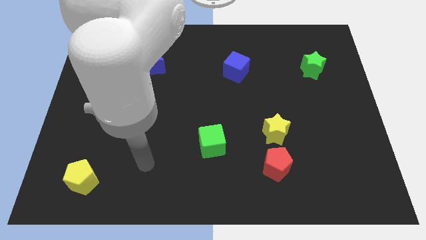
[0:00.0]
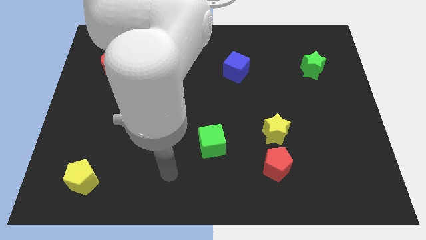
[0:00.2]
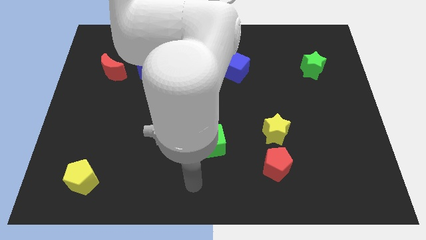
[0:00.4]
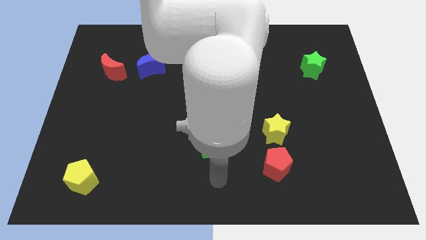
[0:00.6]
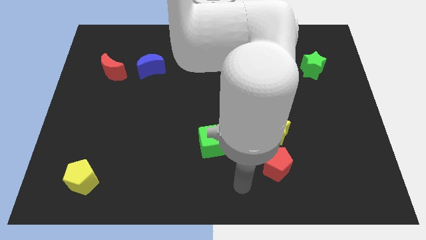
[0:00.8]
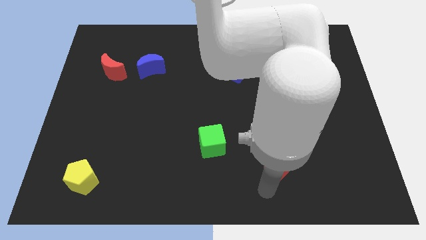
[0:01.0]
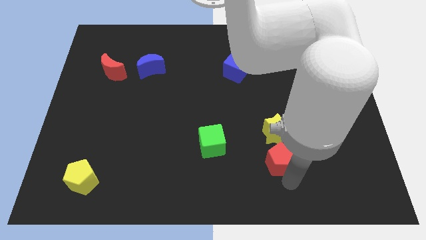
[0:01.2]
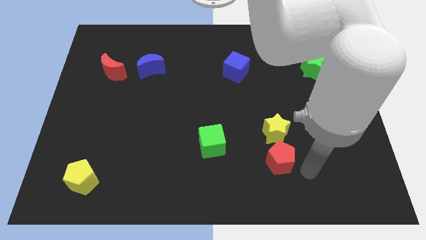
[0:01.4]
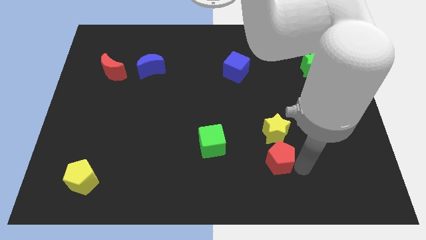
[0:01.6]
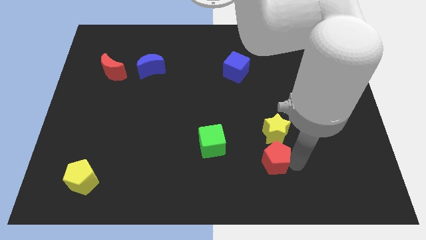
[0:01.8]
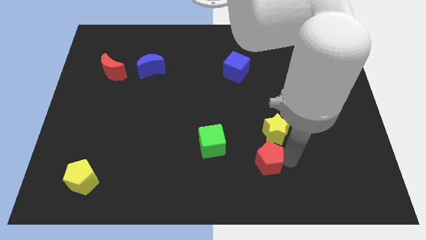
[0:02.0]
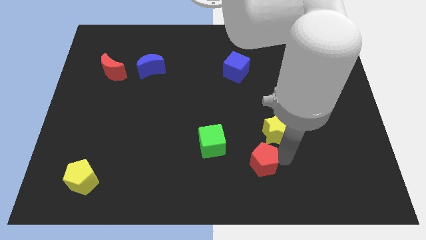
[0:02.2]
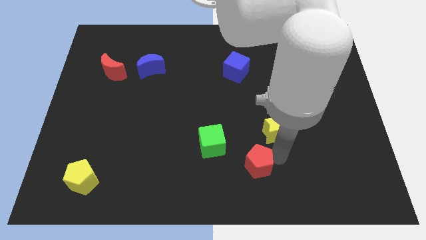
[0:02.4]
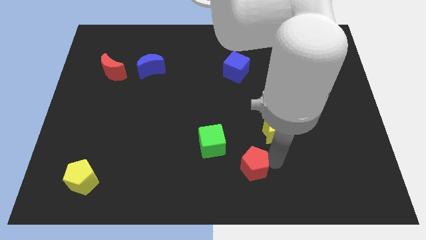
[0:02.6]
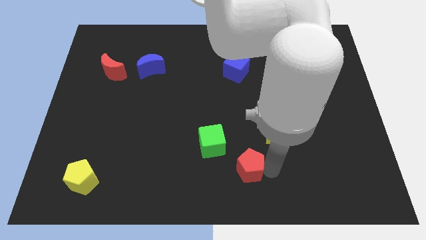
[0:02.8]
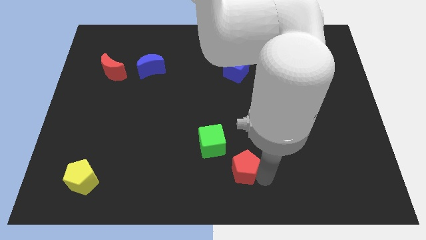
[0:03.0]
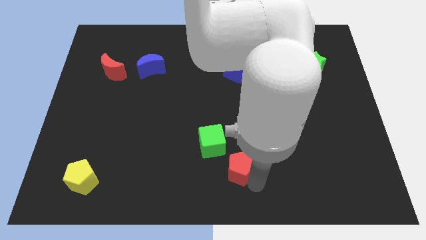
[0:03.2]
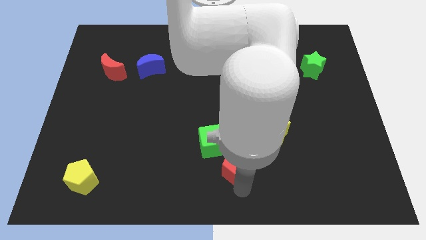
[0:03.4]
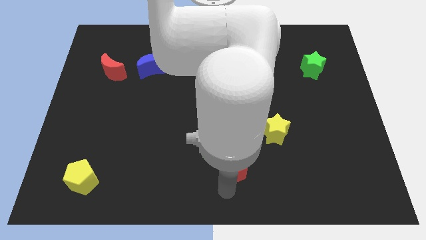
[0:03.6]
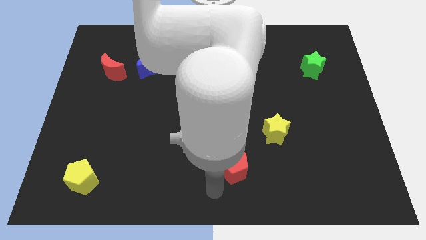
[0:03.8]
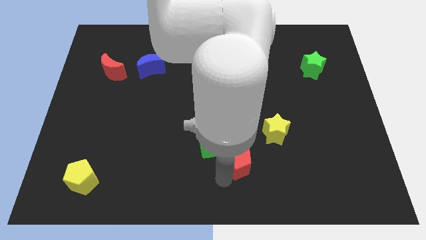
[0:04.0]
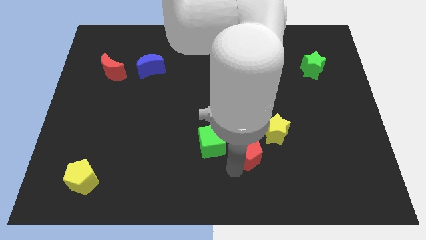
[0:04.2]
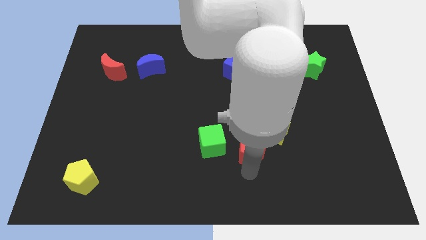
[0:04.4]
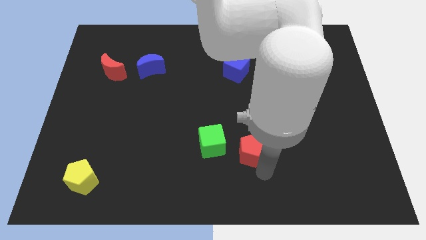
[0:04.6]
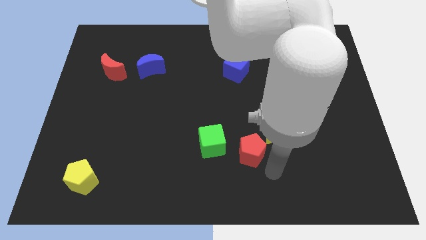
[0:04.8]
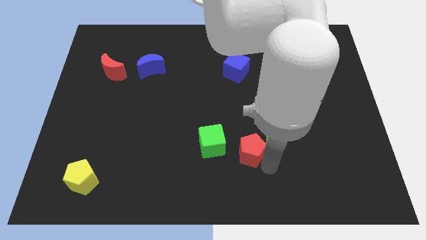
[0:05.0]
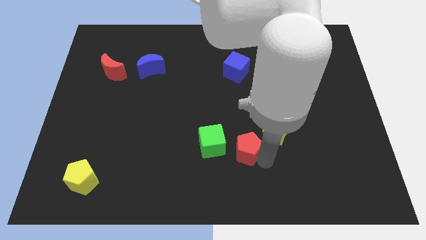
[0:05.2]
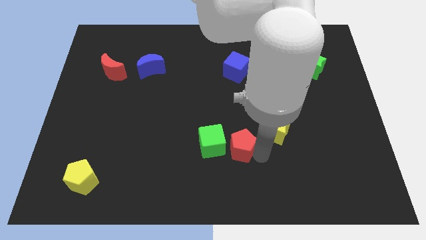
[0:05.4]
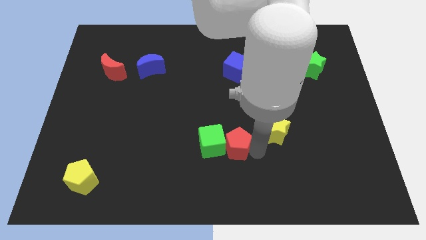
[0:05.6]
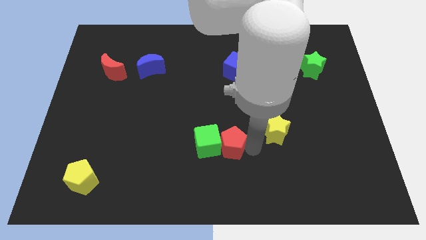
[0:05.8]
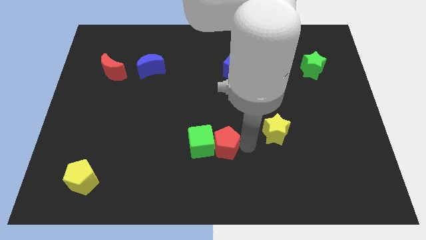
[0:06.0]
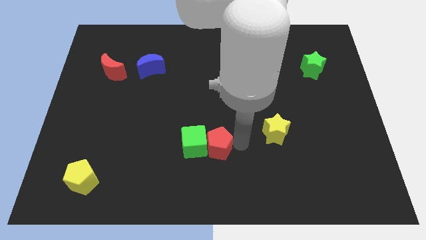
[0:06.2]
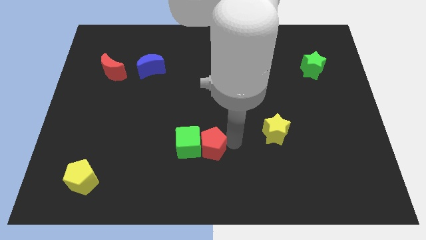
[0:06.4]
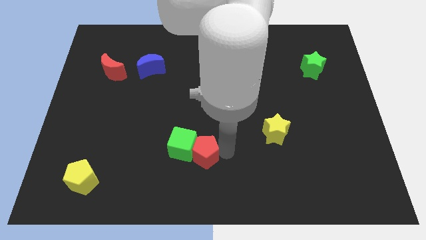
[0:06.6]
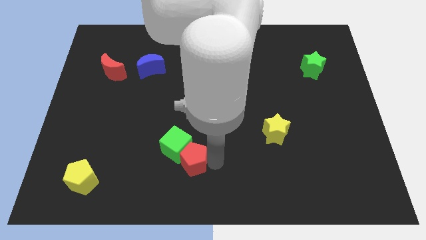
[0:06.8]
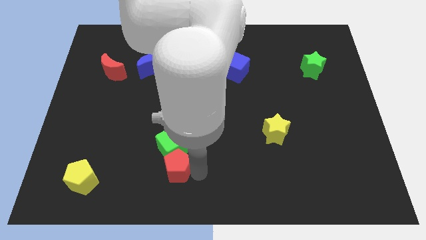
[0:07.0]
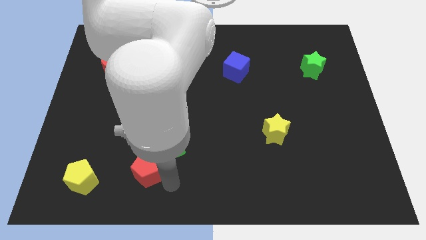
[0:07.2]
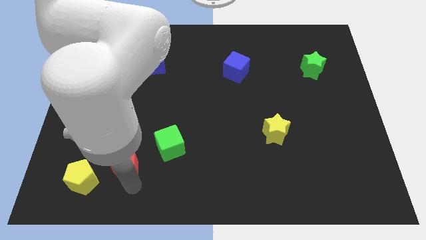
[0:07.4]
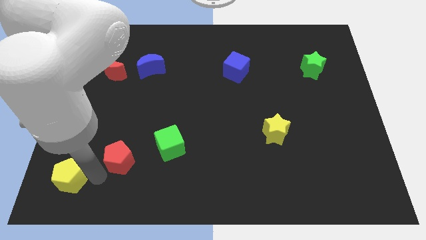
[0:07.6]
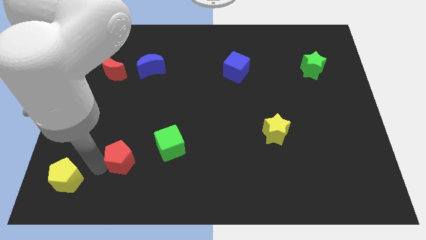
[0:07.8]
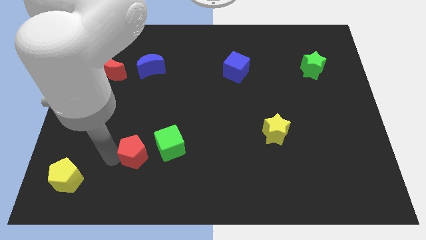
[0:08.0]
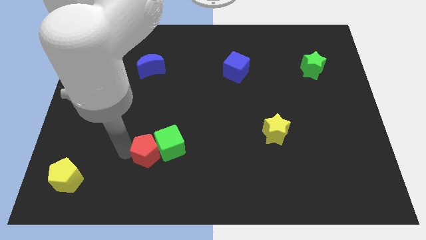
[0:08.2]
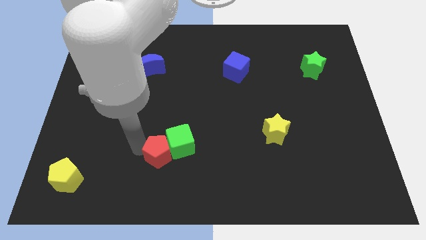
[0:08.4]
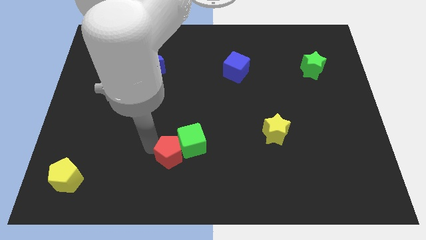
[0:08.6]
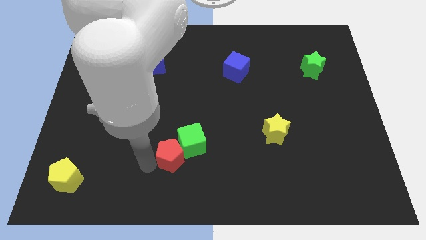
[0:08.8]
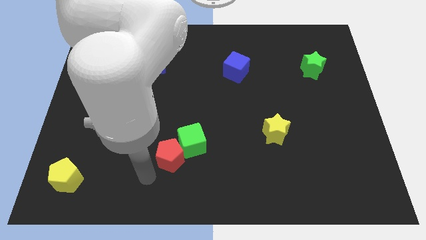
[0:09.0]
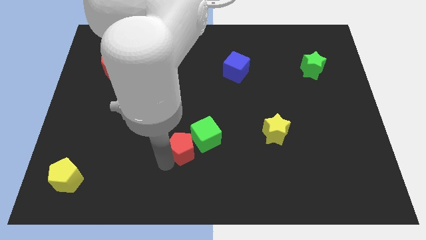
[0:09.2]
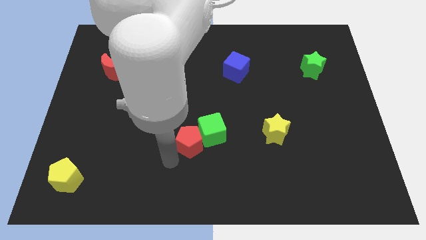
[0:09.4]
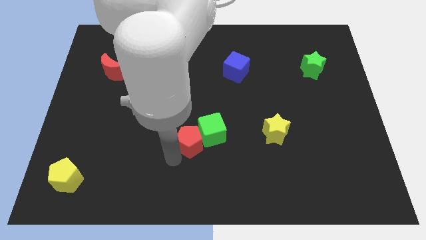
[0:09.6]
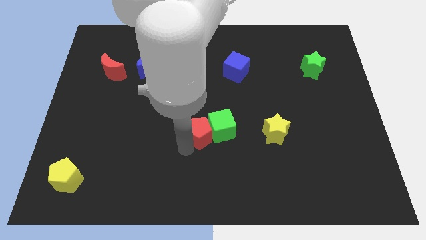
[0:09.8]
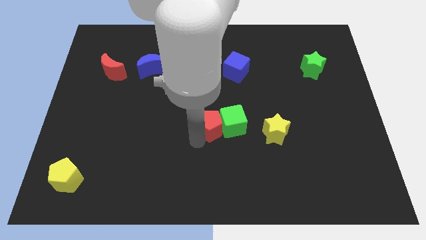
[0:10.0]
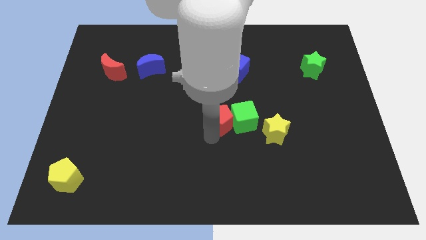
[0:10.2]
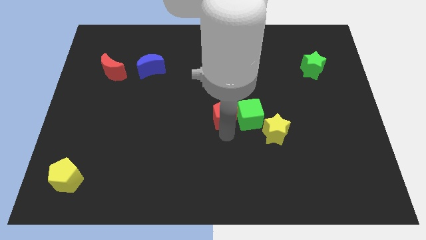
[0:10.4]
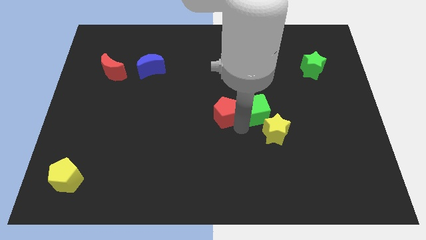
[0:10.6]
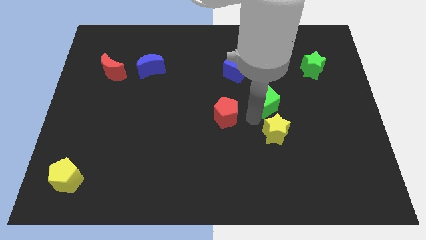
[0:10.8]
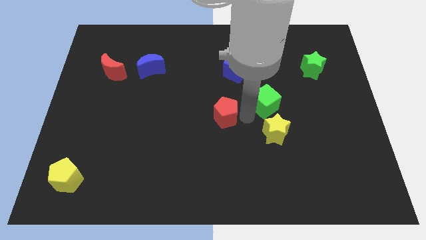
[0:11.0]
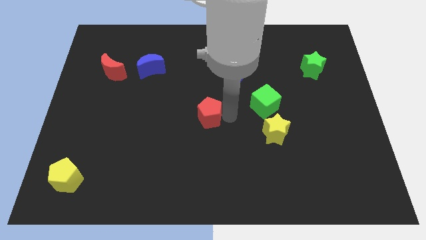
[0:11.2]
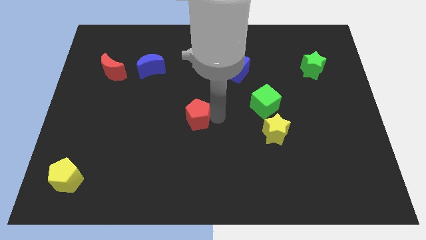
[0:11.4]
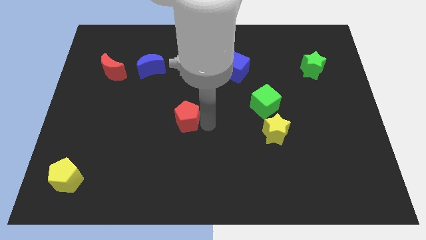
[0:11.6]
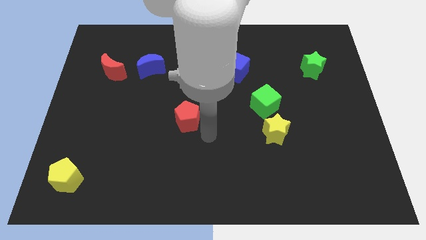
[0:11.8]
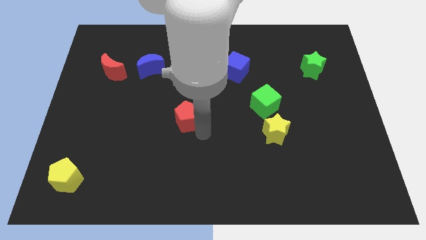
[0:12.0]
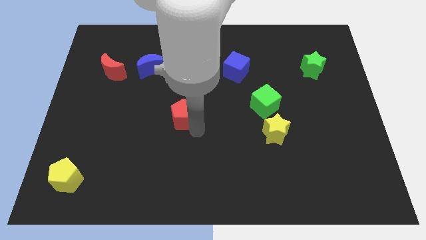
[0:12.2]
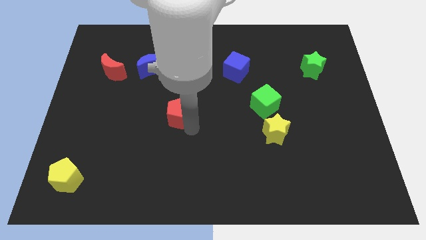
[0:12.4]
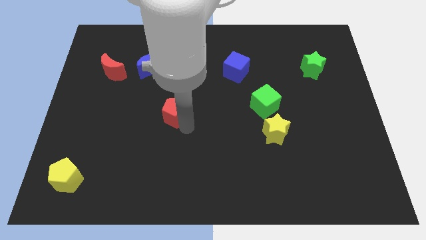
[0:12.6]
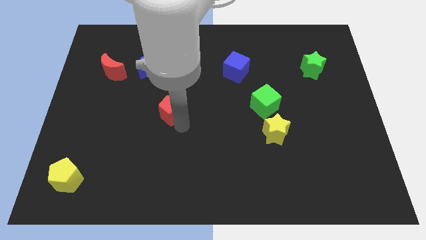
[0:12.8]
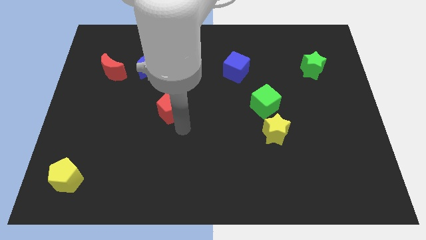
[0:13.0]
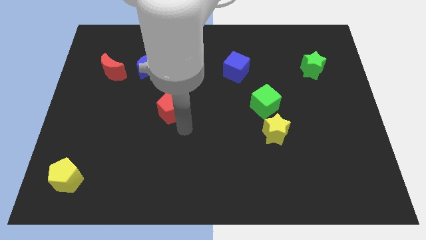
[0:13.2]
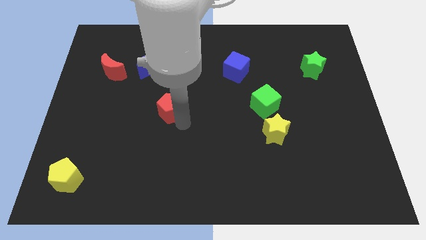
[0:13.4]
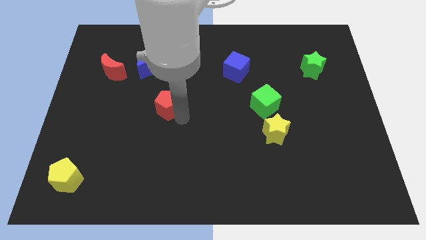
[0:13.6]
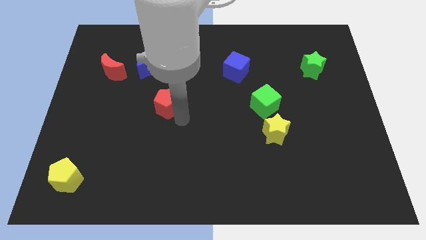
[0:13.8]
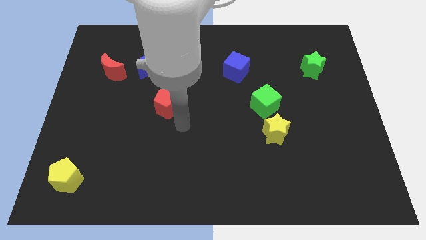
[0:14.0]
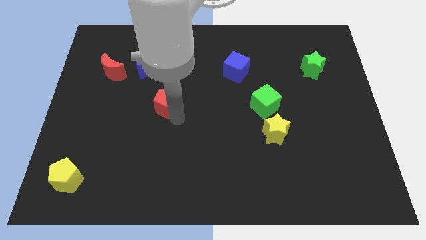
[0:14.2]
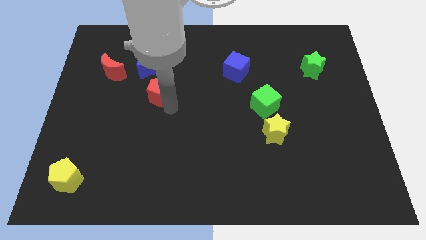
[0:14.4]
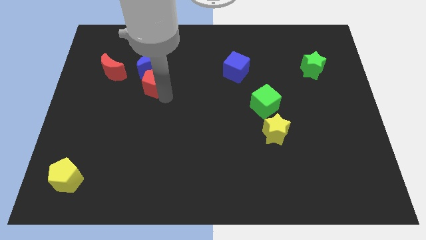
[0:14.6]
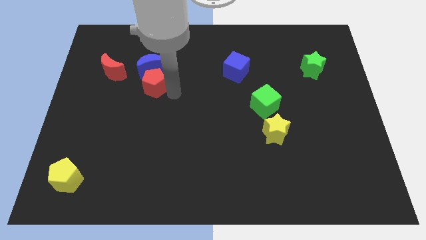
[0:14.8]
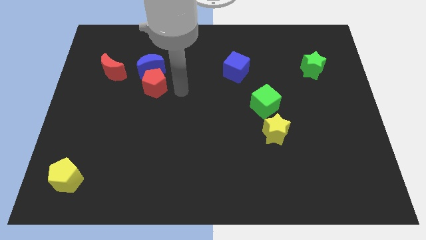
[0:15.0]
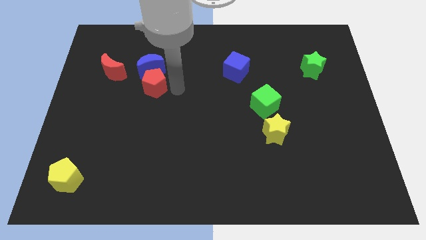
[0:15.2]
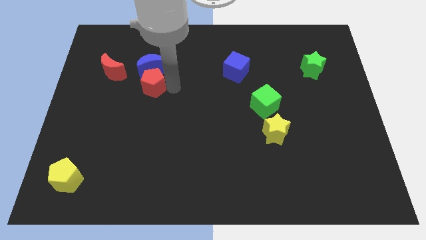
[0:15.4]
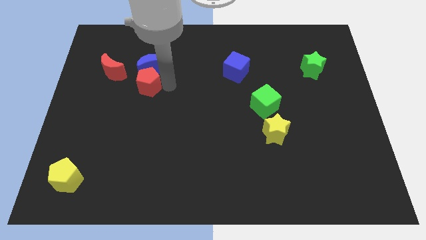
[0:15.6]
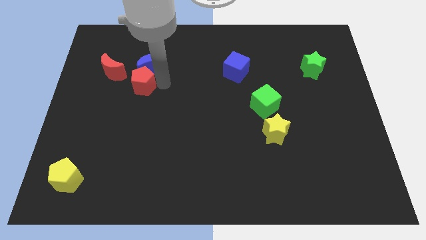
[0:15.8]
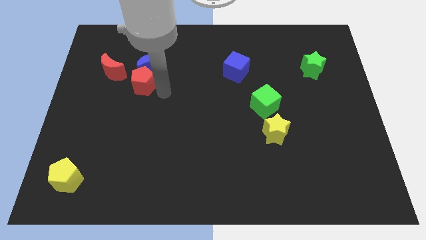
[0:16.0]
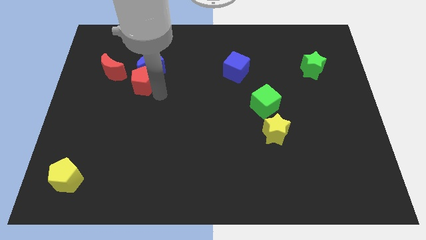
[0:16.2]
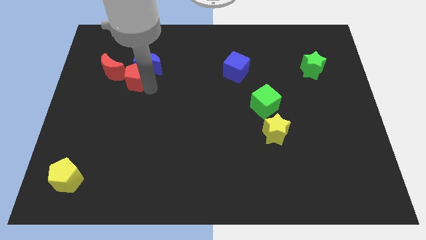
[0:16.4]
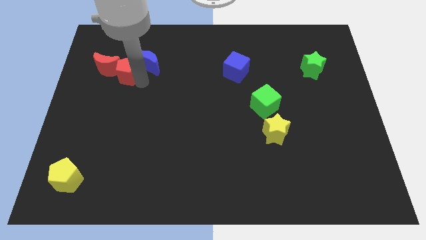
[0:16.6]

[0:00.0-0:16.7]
push the red pentagon to the red moon
